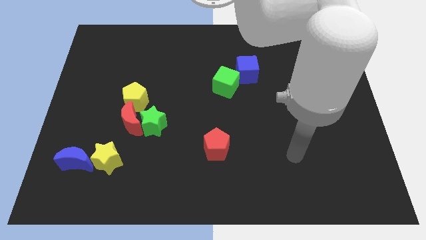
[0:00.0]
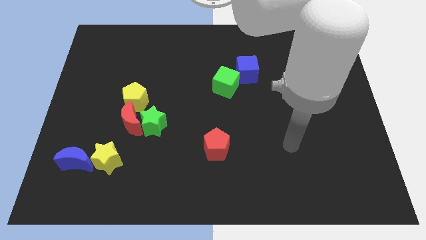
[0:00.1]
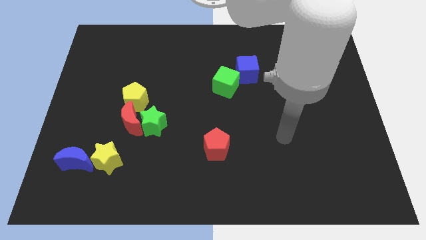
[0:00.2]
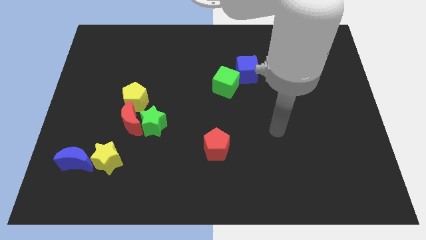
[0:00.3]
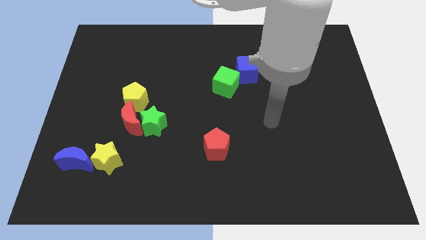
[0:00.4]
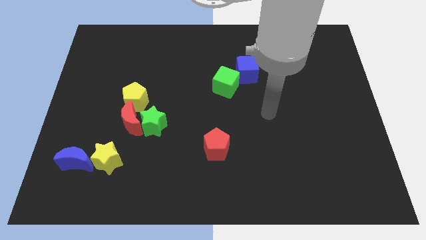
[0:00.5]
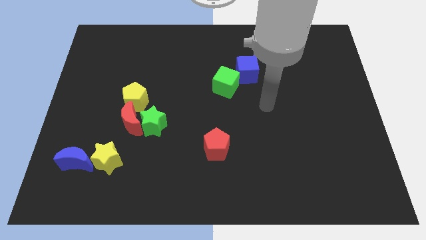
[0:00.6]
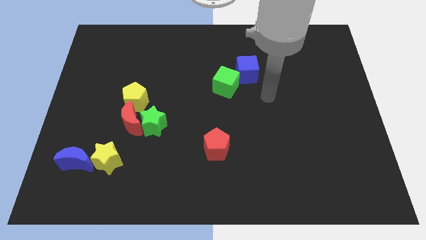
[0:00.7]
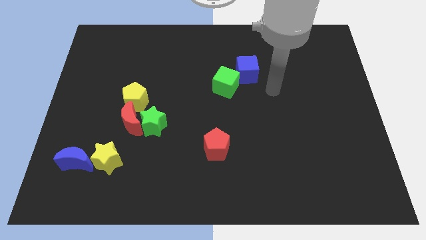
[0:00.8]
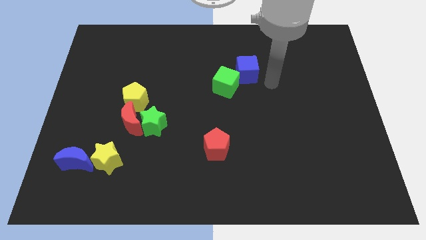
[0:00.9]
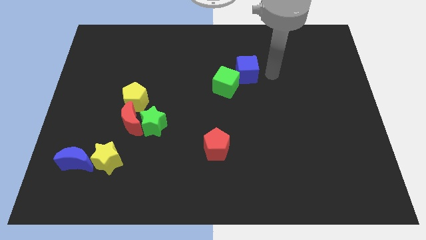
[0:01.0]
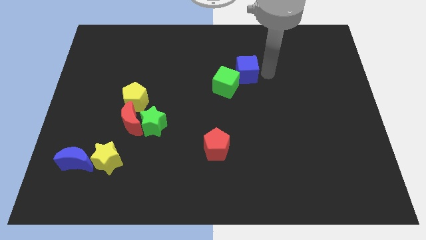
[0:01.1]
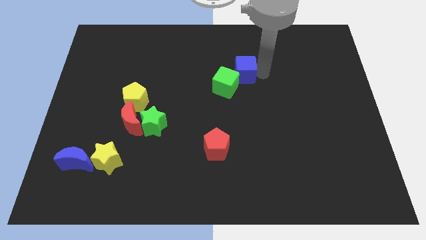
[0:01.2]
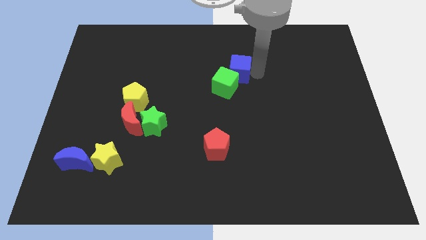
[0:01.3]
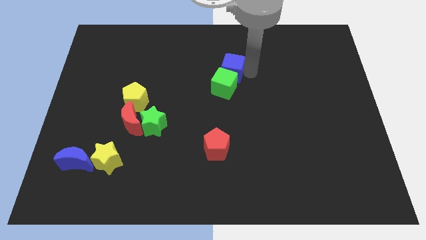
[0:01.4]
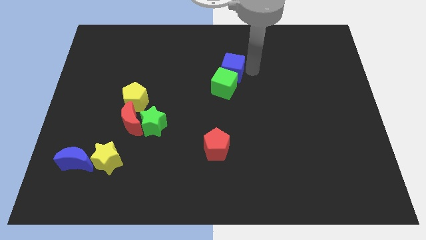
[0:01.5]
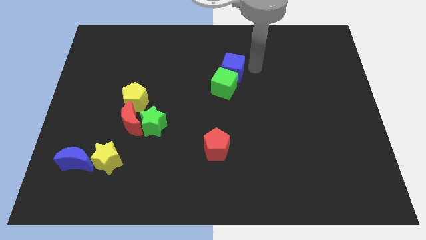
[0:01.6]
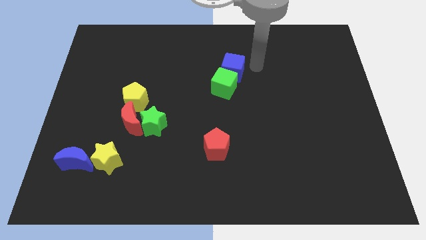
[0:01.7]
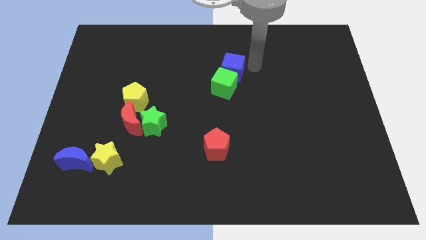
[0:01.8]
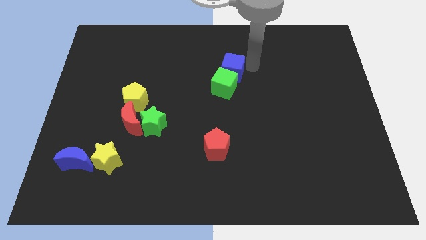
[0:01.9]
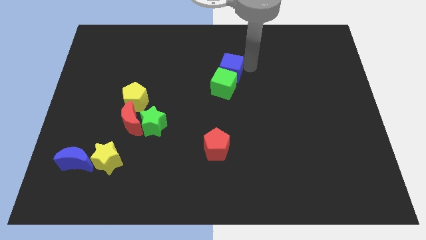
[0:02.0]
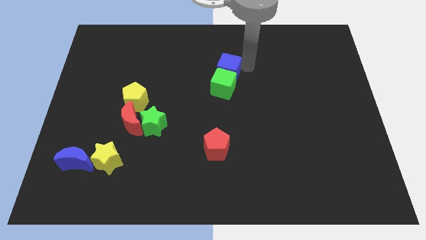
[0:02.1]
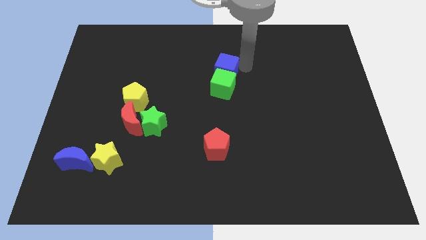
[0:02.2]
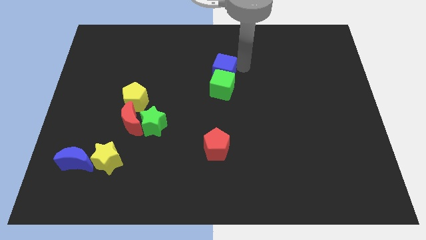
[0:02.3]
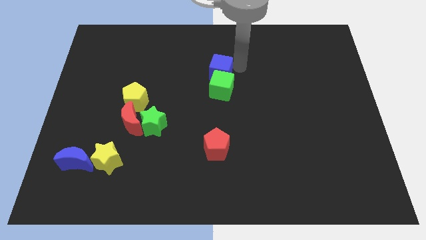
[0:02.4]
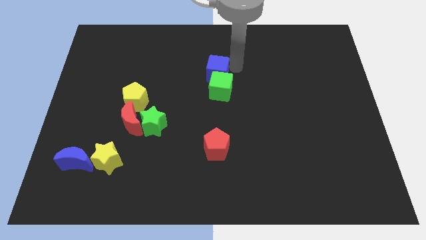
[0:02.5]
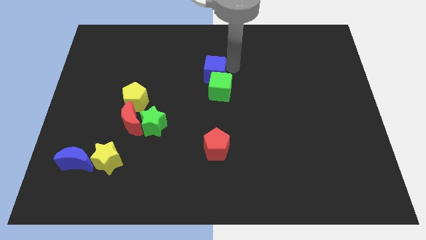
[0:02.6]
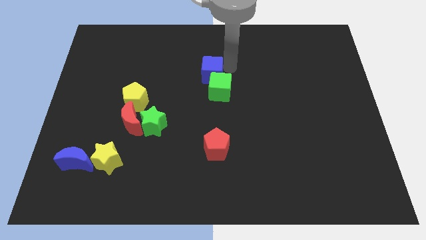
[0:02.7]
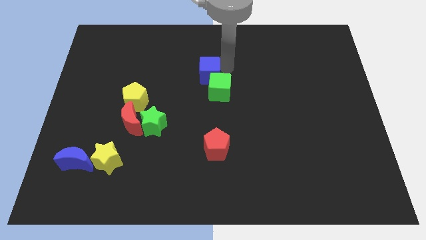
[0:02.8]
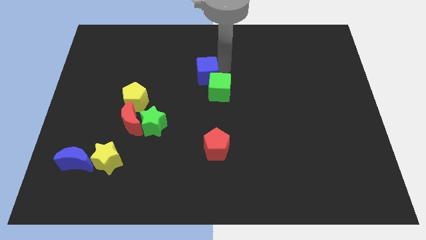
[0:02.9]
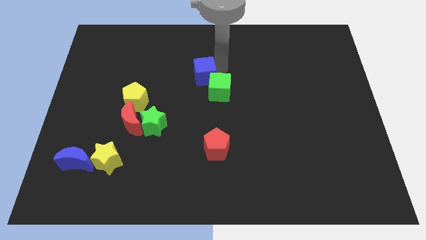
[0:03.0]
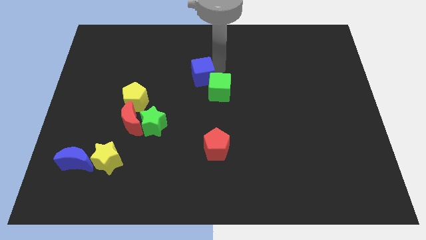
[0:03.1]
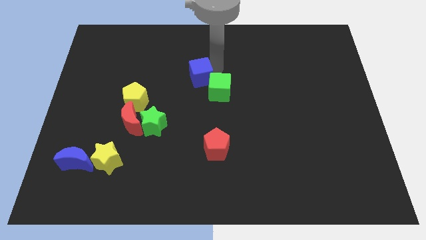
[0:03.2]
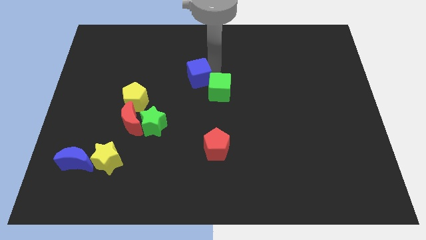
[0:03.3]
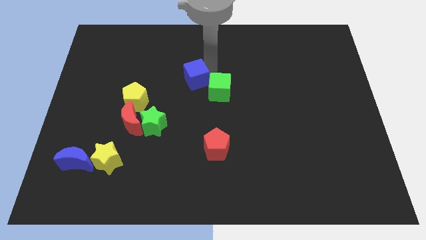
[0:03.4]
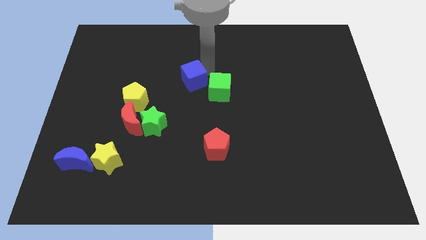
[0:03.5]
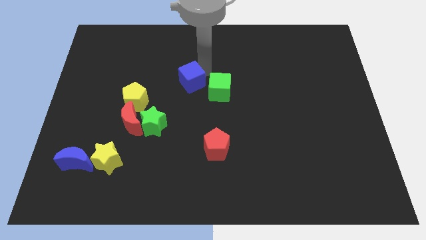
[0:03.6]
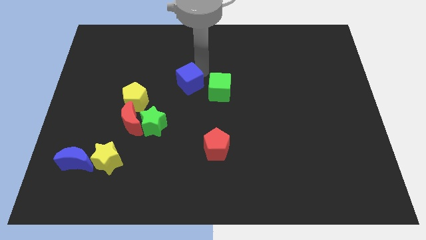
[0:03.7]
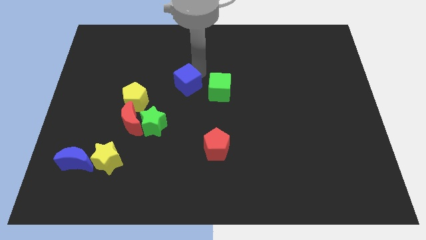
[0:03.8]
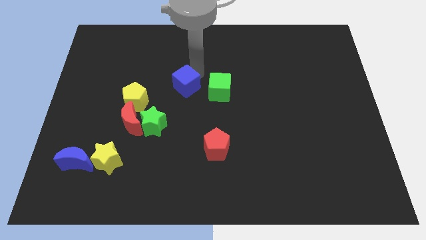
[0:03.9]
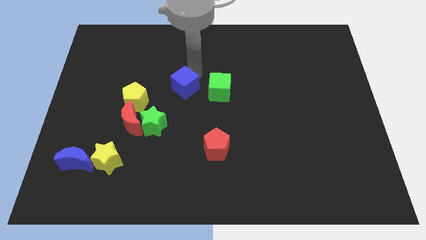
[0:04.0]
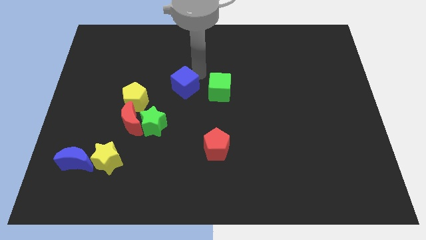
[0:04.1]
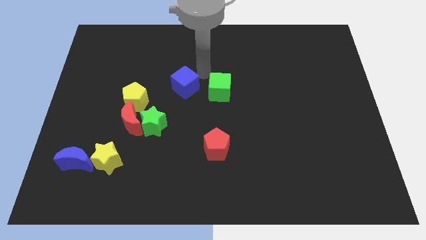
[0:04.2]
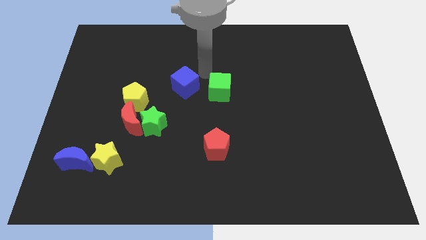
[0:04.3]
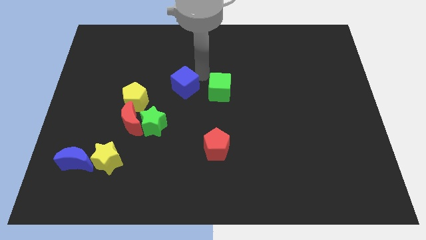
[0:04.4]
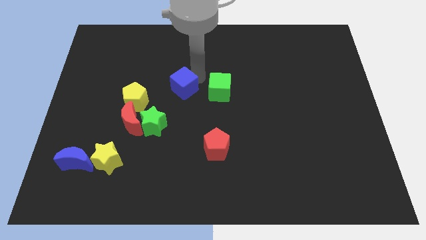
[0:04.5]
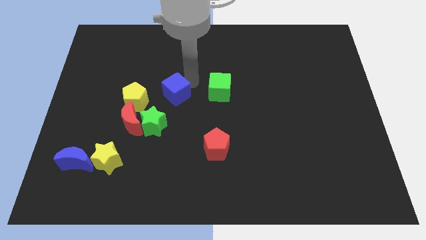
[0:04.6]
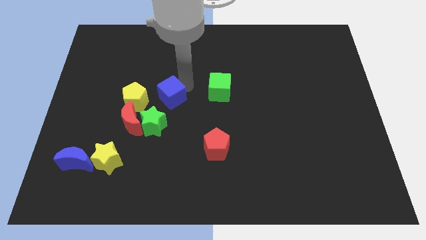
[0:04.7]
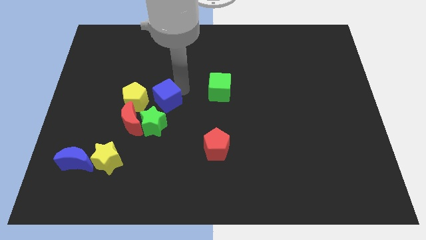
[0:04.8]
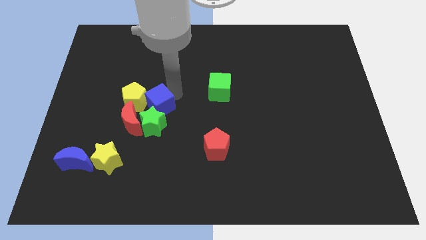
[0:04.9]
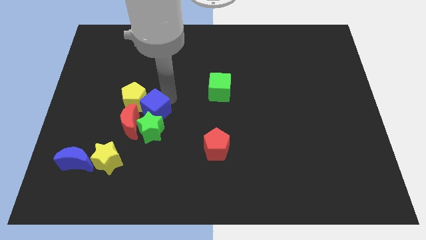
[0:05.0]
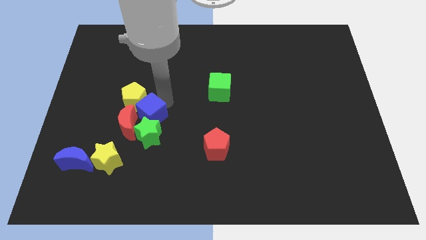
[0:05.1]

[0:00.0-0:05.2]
slide the blue cube towards the red moon

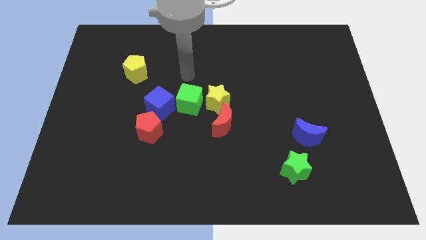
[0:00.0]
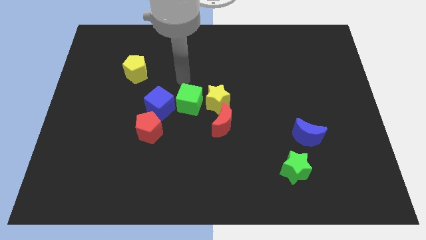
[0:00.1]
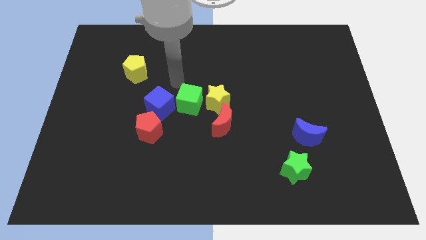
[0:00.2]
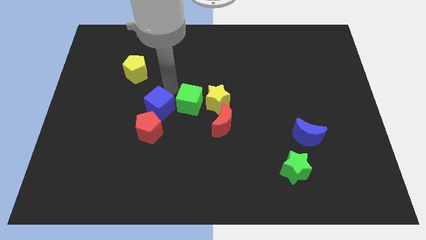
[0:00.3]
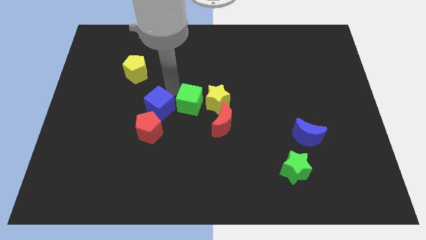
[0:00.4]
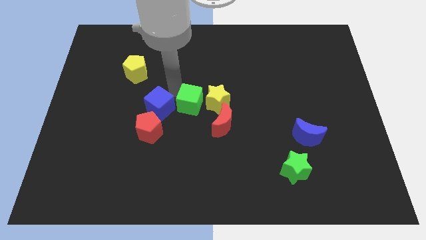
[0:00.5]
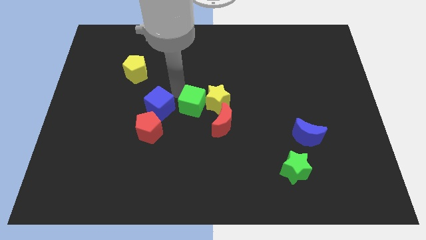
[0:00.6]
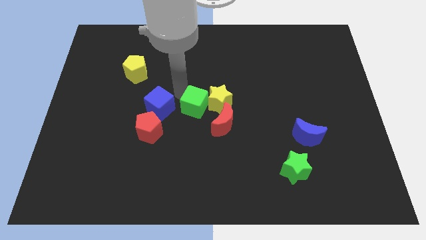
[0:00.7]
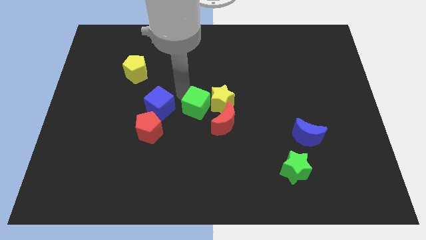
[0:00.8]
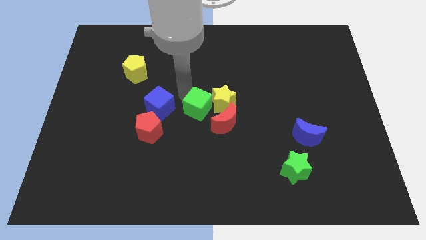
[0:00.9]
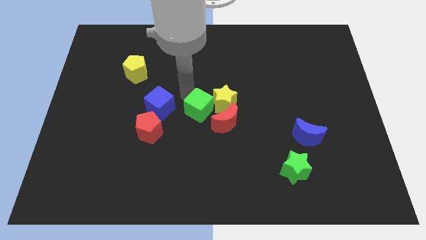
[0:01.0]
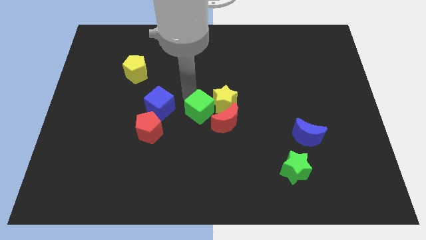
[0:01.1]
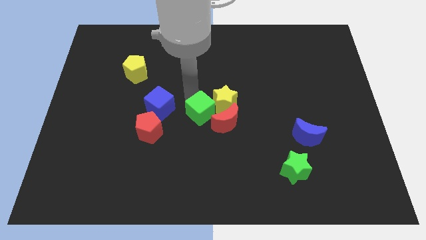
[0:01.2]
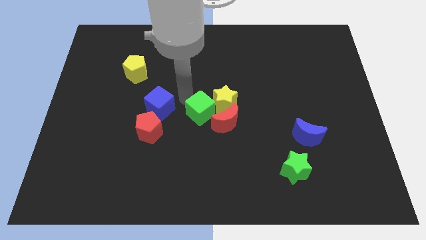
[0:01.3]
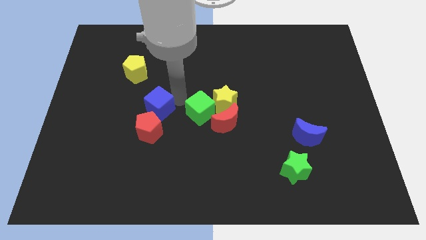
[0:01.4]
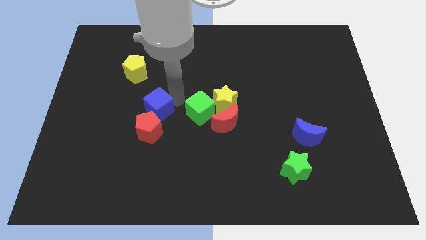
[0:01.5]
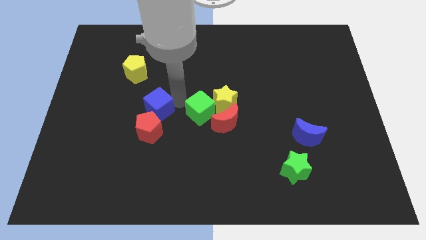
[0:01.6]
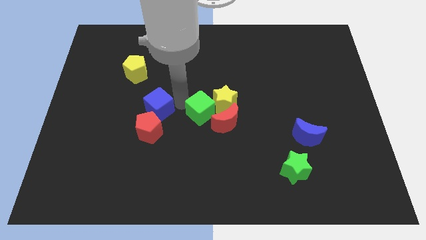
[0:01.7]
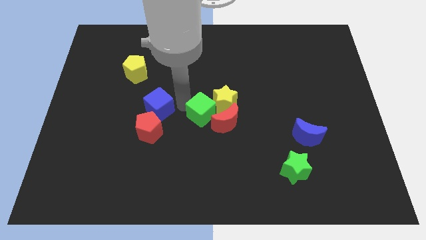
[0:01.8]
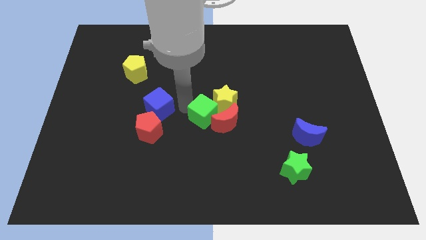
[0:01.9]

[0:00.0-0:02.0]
slide the green cube next to the red moon

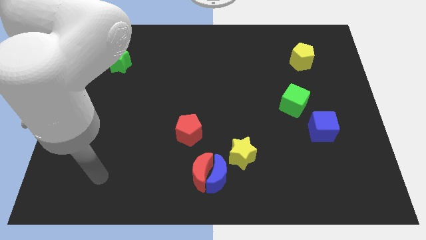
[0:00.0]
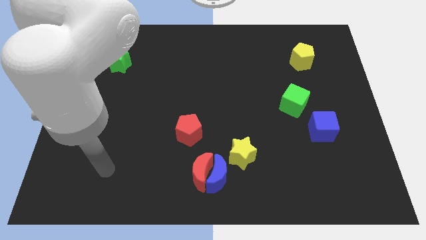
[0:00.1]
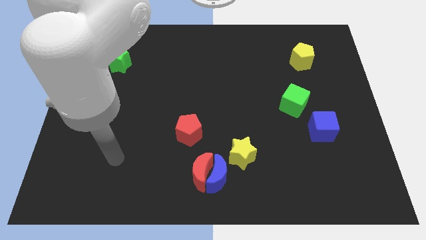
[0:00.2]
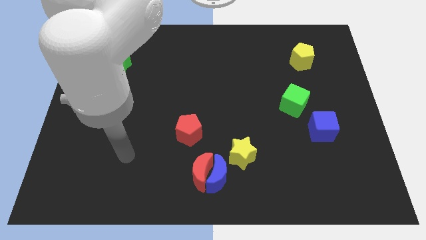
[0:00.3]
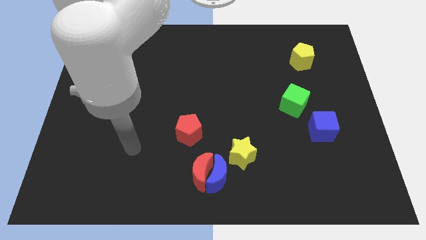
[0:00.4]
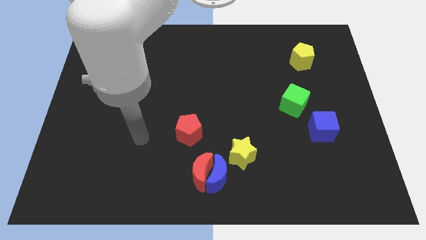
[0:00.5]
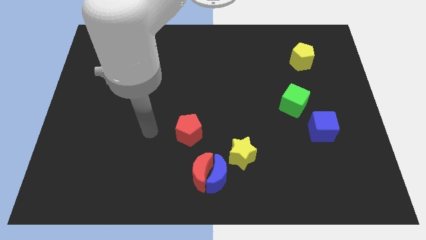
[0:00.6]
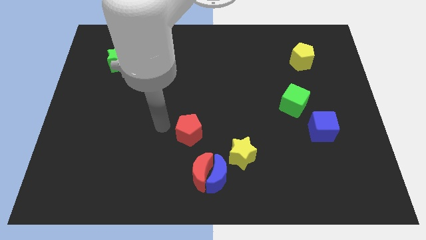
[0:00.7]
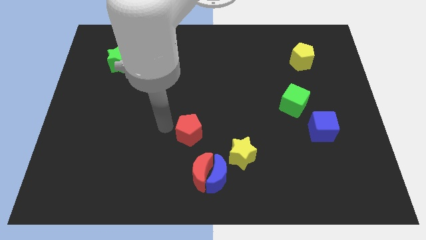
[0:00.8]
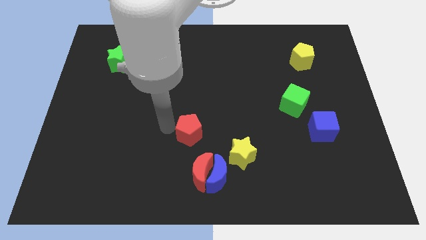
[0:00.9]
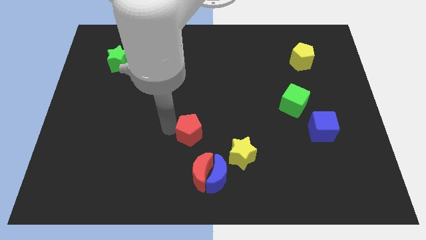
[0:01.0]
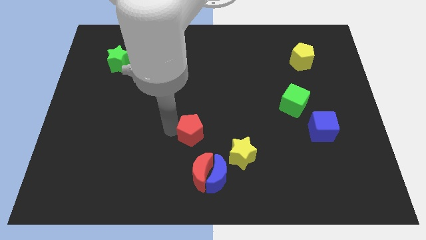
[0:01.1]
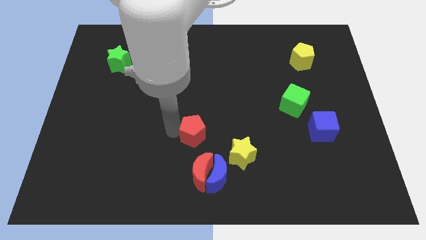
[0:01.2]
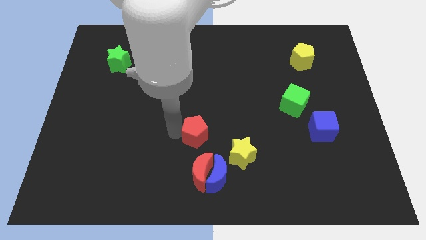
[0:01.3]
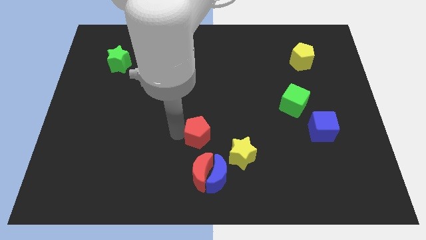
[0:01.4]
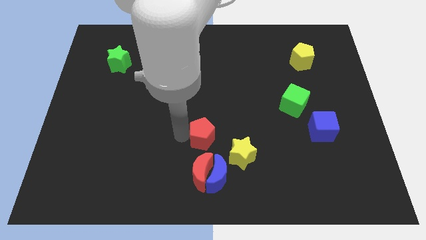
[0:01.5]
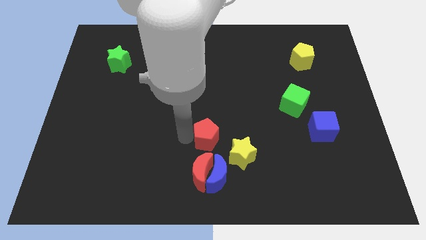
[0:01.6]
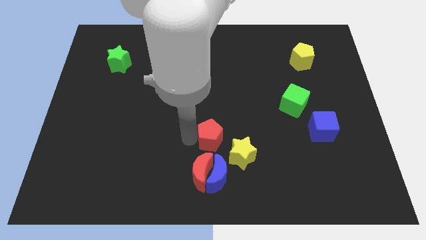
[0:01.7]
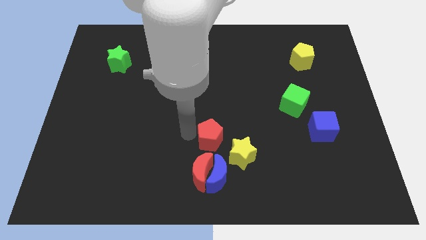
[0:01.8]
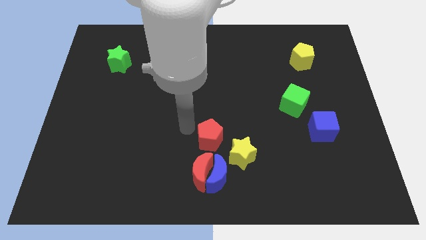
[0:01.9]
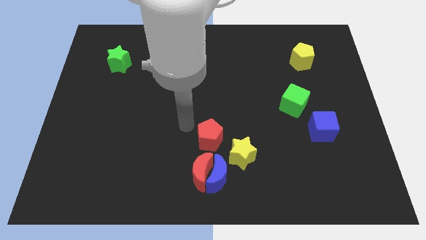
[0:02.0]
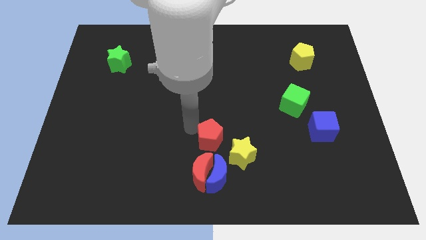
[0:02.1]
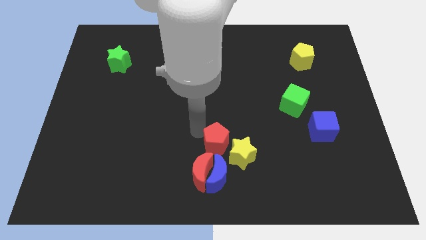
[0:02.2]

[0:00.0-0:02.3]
push the red pentagon close to the yellow star
